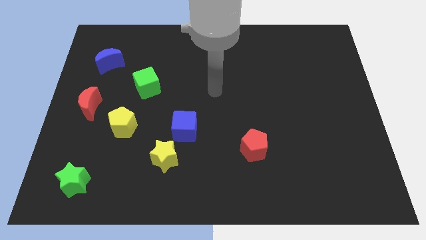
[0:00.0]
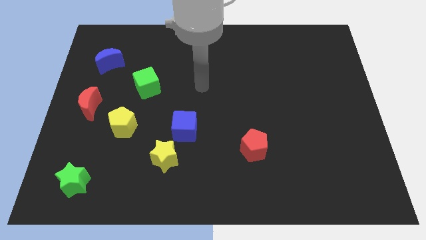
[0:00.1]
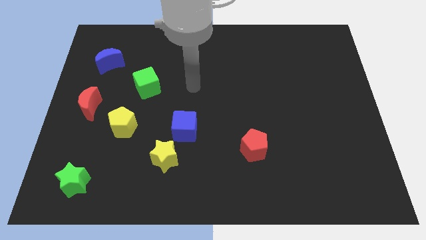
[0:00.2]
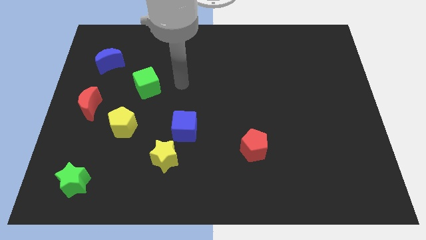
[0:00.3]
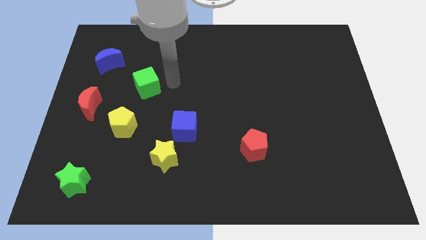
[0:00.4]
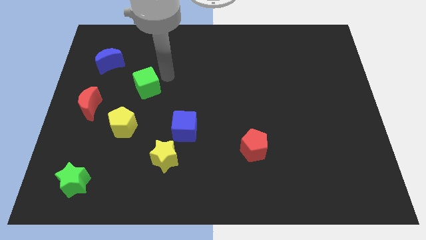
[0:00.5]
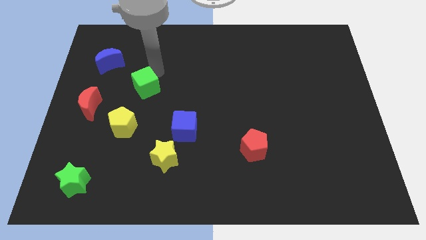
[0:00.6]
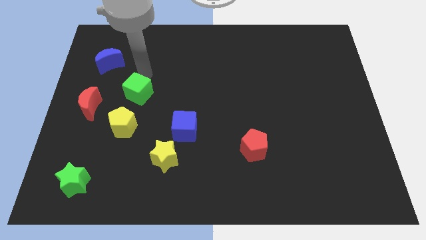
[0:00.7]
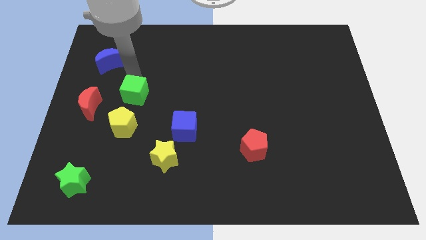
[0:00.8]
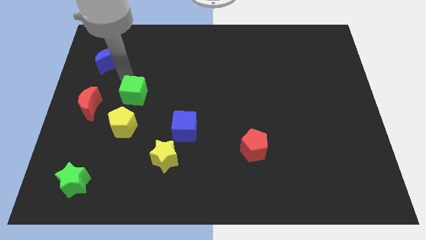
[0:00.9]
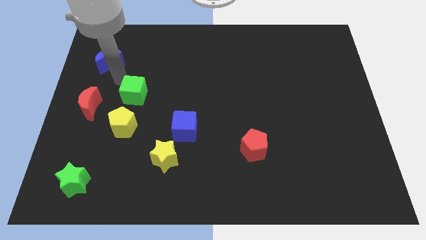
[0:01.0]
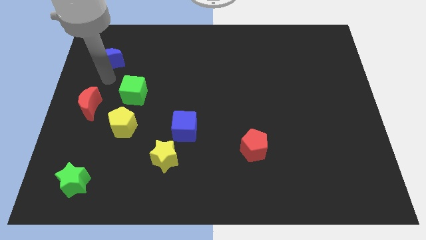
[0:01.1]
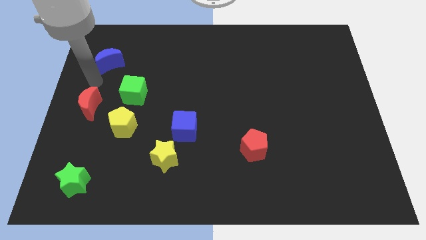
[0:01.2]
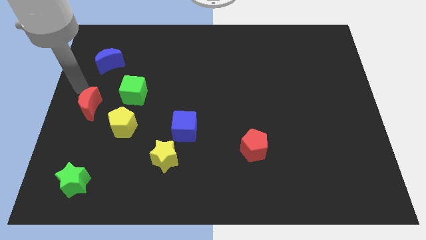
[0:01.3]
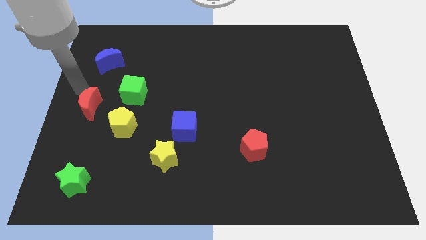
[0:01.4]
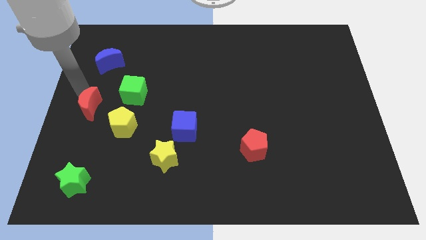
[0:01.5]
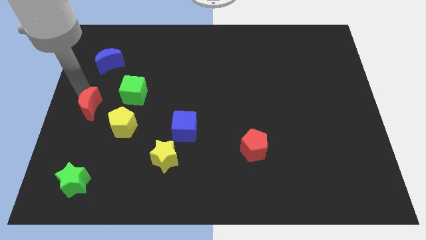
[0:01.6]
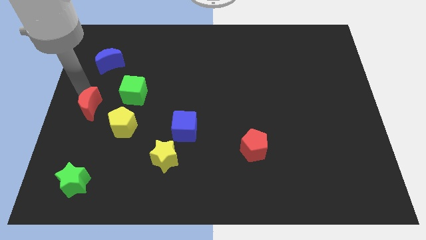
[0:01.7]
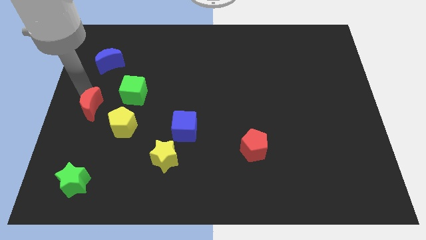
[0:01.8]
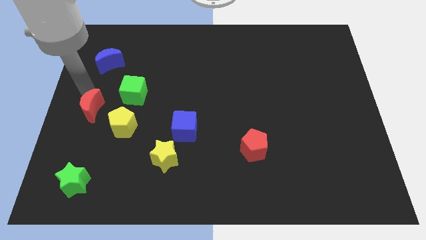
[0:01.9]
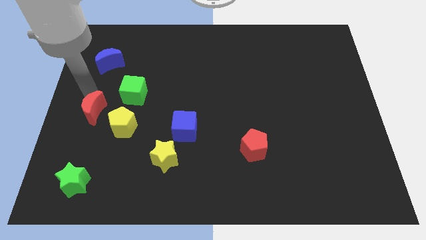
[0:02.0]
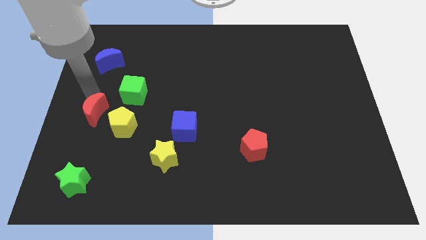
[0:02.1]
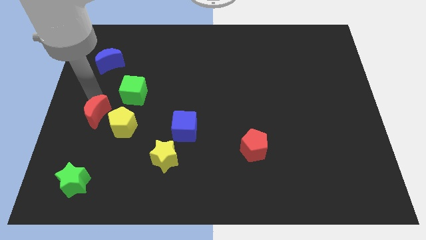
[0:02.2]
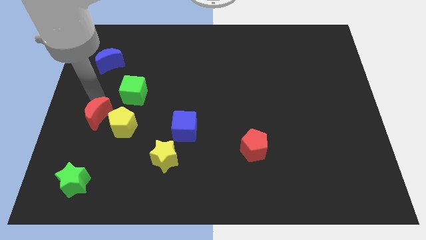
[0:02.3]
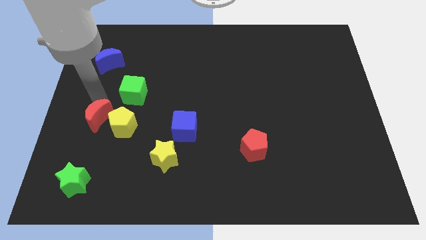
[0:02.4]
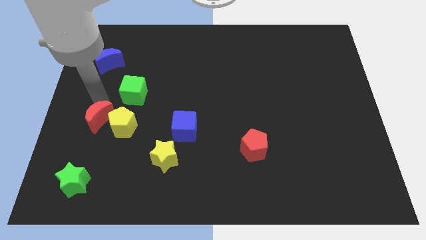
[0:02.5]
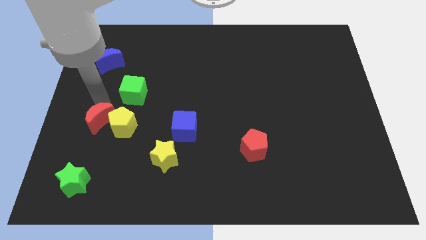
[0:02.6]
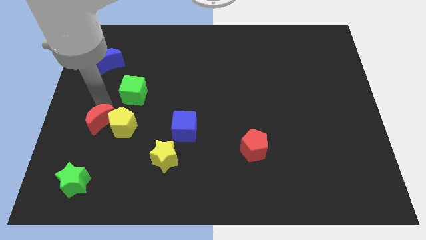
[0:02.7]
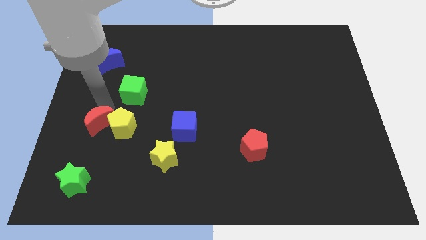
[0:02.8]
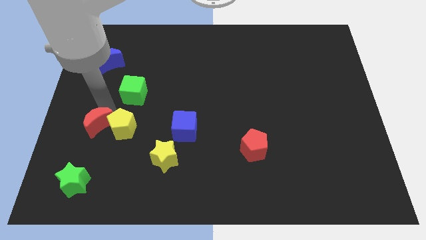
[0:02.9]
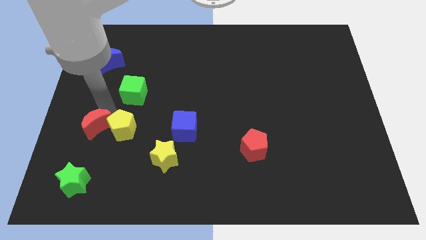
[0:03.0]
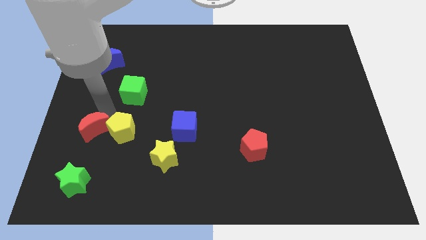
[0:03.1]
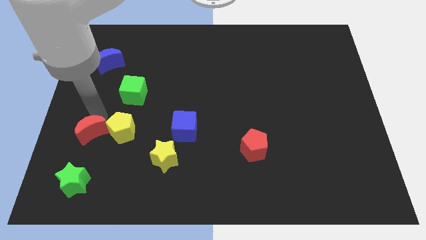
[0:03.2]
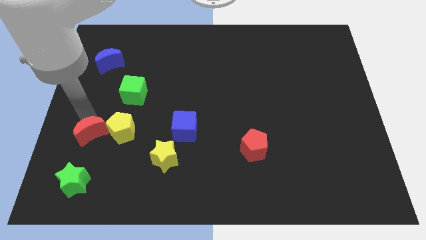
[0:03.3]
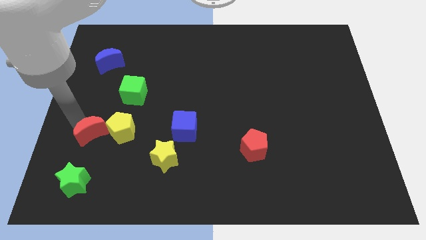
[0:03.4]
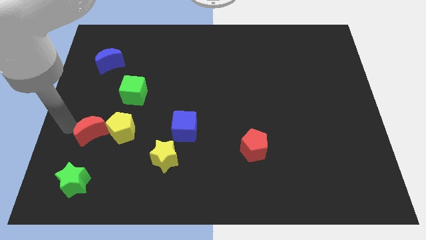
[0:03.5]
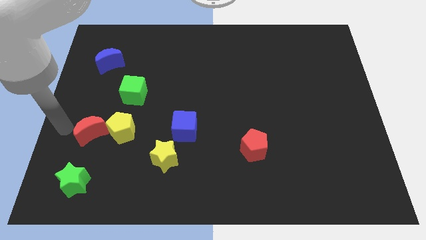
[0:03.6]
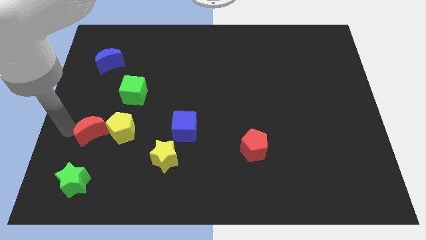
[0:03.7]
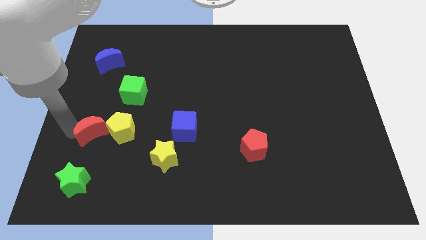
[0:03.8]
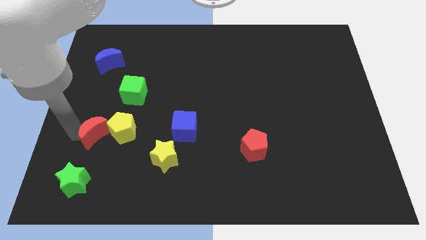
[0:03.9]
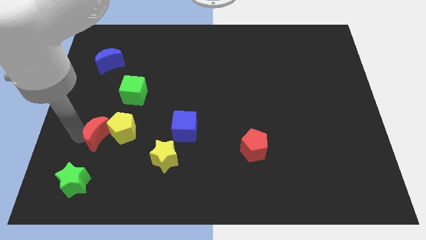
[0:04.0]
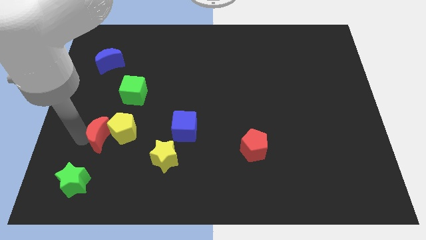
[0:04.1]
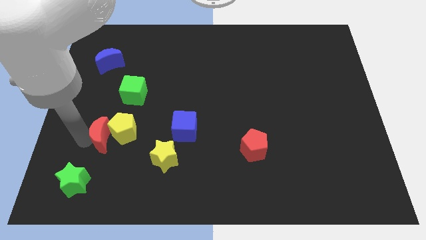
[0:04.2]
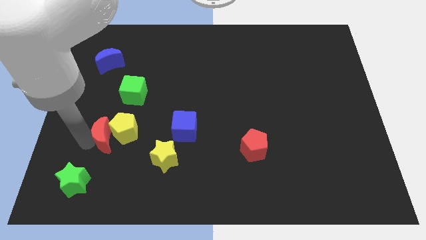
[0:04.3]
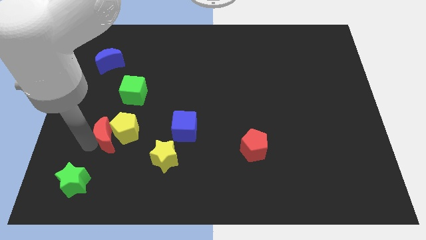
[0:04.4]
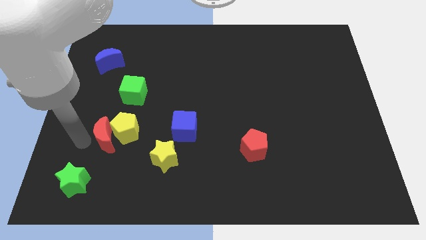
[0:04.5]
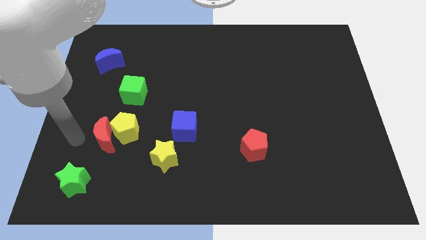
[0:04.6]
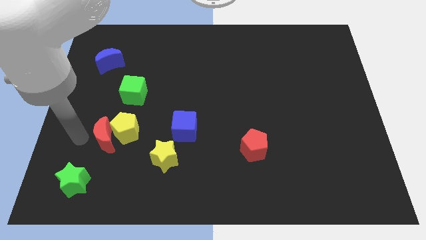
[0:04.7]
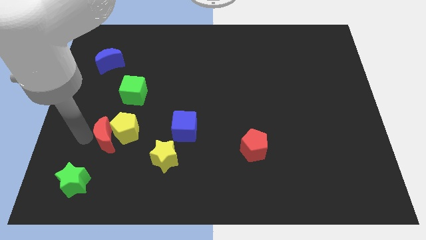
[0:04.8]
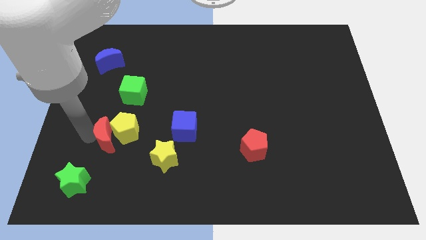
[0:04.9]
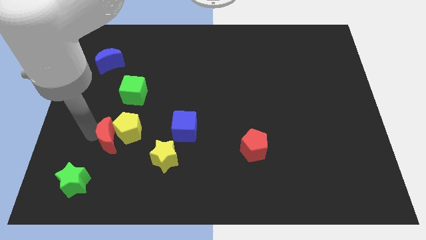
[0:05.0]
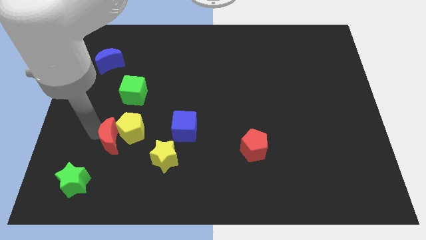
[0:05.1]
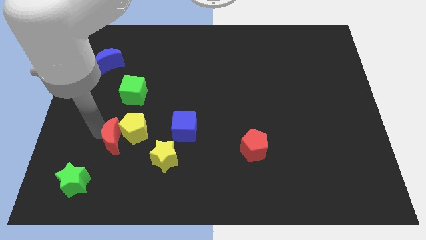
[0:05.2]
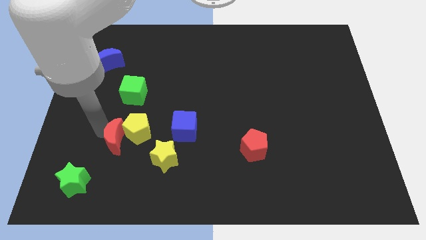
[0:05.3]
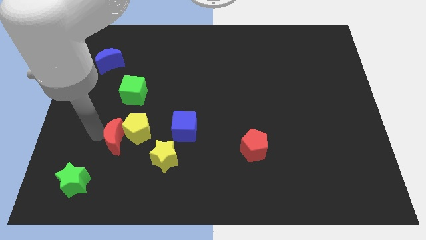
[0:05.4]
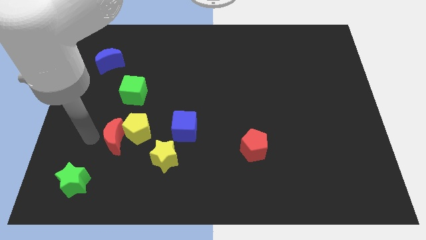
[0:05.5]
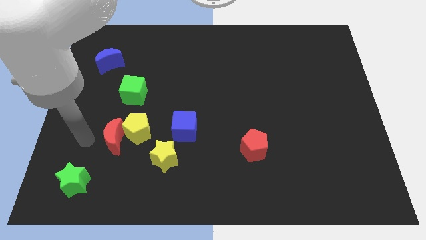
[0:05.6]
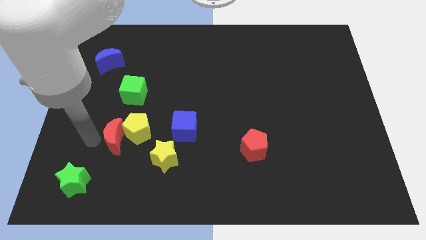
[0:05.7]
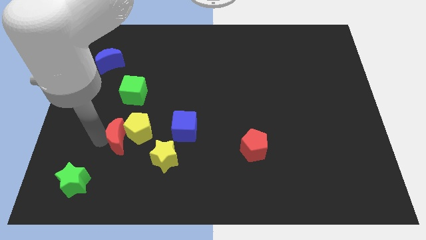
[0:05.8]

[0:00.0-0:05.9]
push the red moon diagonally up and to the left of the yellow star

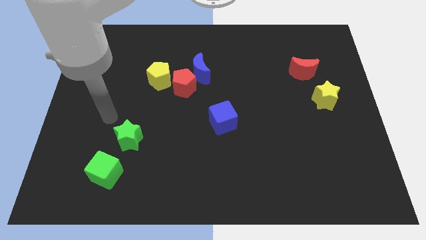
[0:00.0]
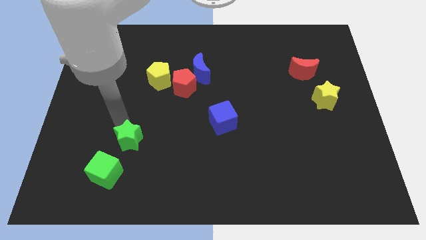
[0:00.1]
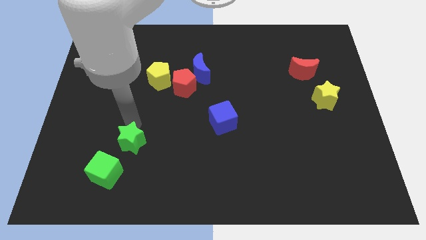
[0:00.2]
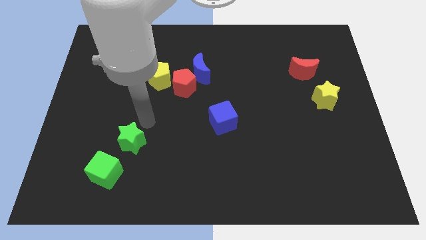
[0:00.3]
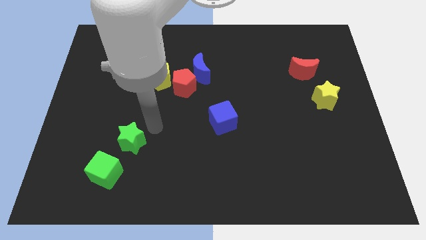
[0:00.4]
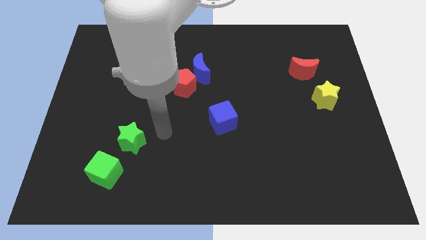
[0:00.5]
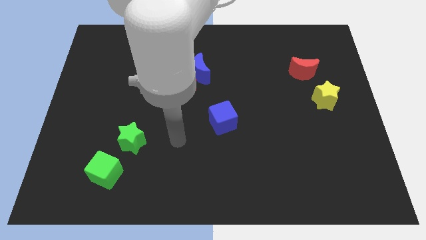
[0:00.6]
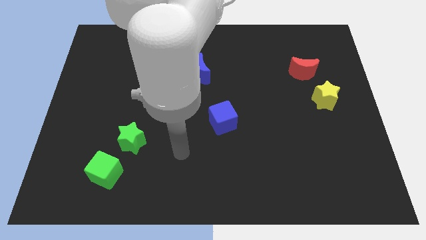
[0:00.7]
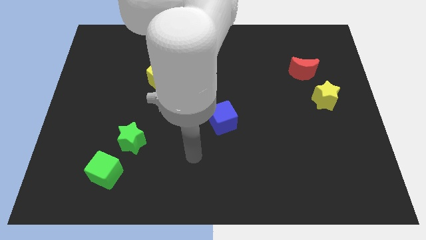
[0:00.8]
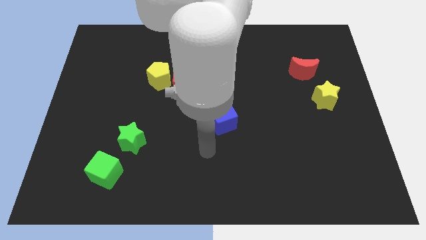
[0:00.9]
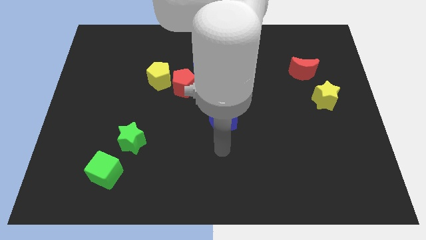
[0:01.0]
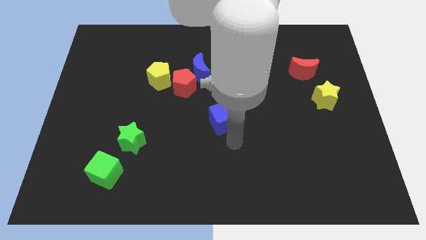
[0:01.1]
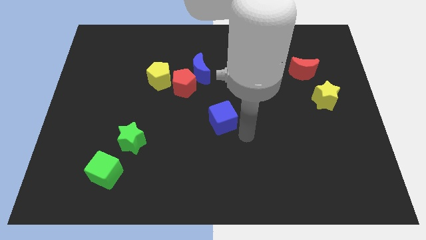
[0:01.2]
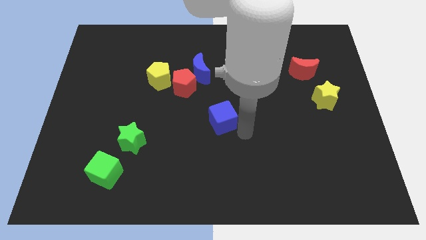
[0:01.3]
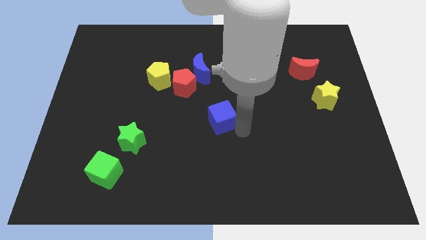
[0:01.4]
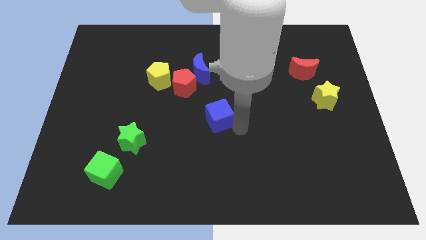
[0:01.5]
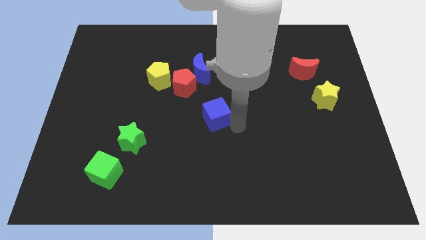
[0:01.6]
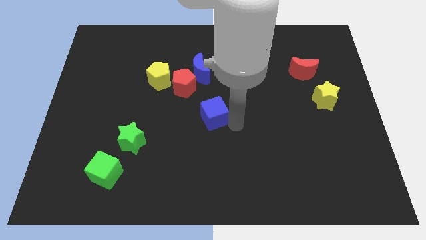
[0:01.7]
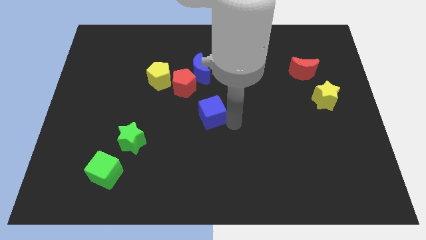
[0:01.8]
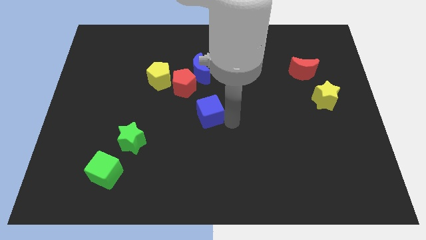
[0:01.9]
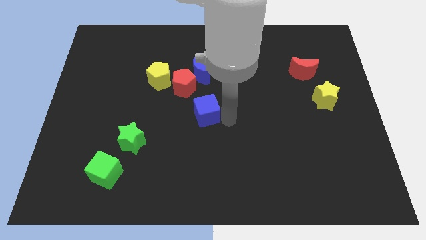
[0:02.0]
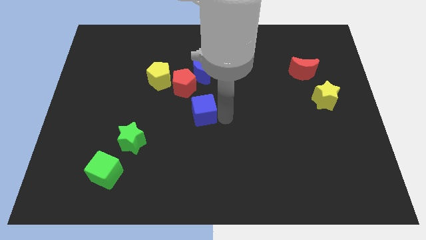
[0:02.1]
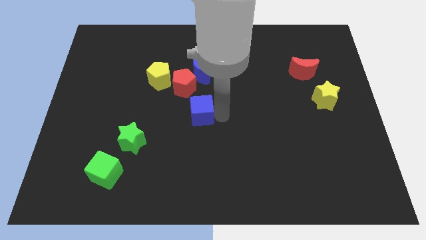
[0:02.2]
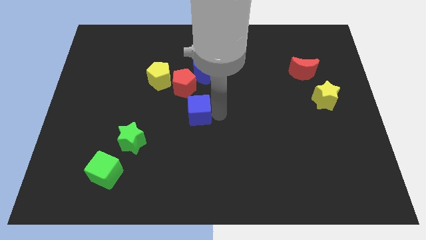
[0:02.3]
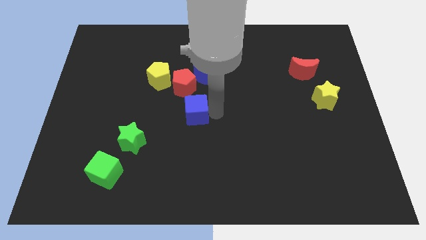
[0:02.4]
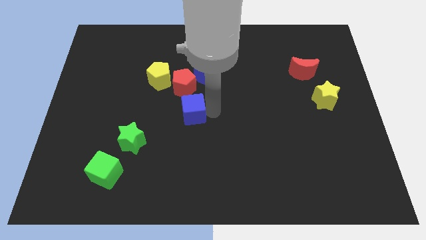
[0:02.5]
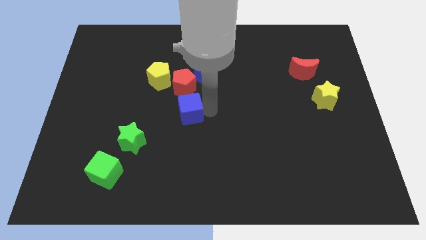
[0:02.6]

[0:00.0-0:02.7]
move the blue cube to the bottom right side of the yellow pentagon
